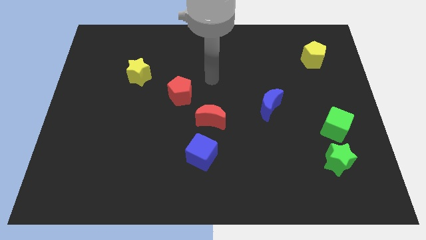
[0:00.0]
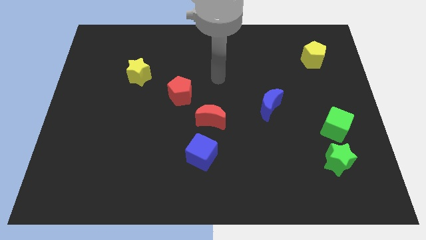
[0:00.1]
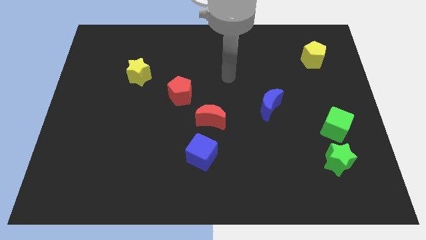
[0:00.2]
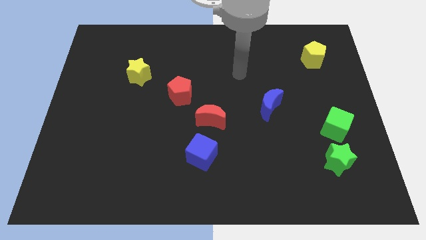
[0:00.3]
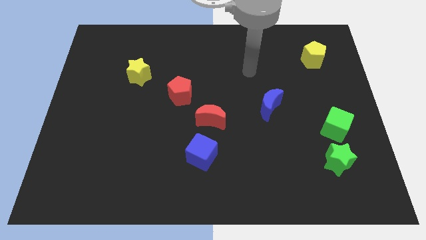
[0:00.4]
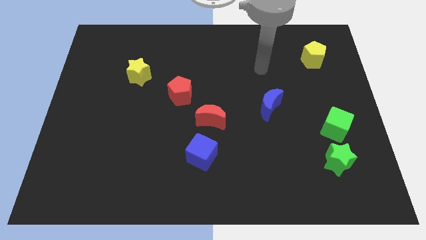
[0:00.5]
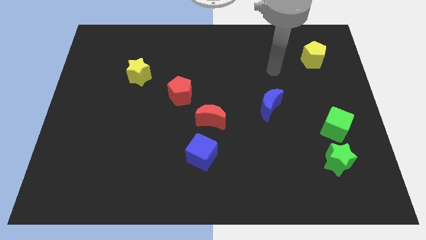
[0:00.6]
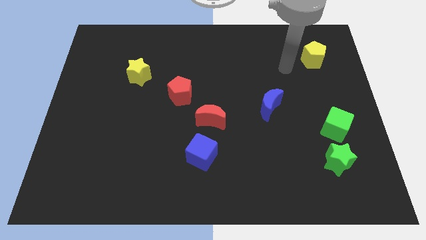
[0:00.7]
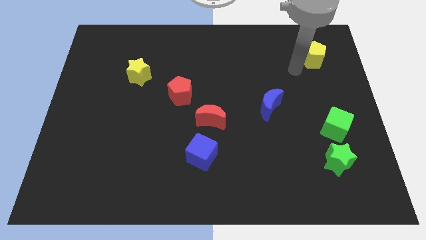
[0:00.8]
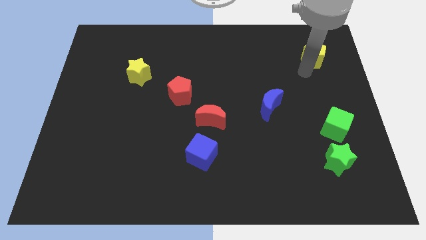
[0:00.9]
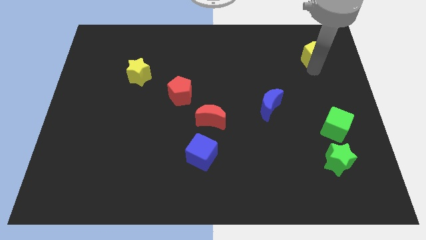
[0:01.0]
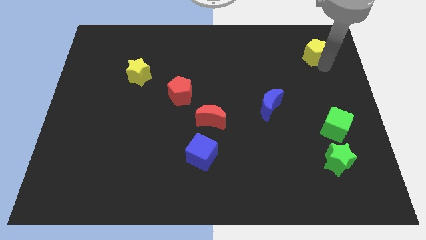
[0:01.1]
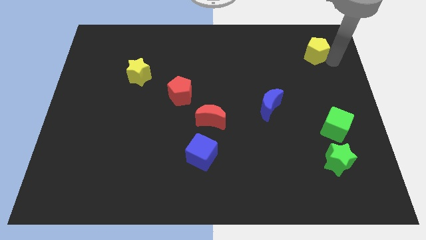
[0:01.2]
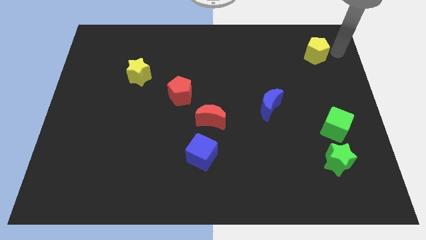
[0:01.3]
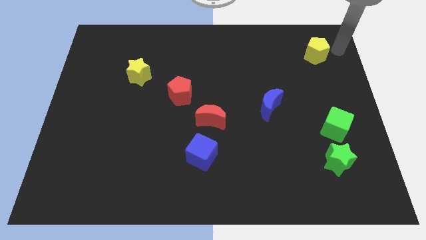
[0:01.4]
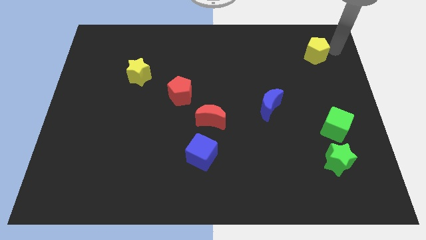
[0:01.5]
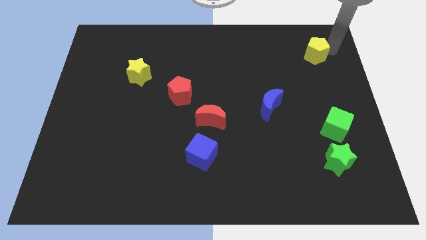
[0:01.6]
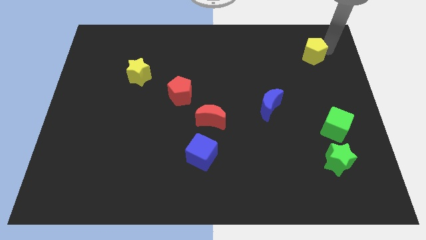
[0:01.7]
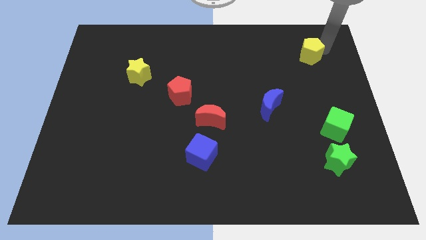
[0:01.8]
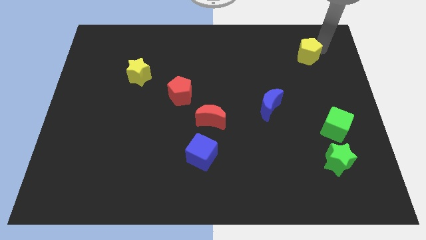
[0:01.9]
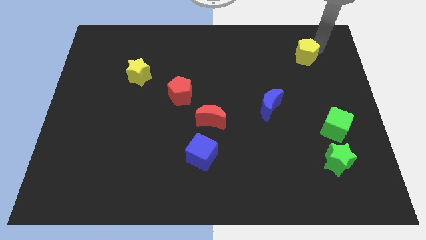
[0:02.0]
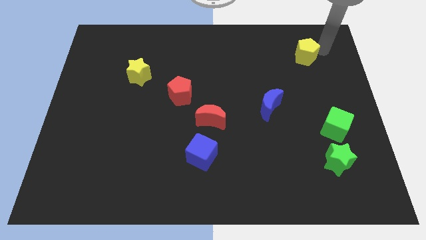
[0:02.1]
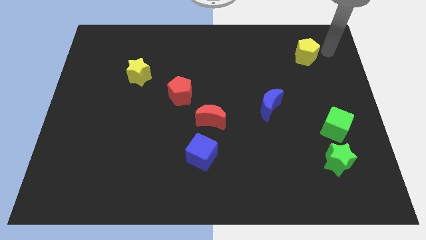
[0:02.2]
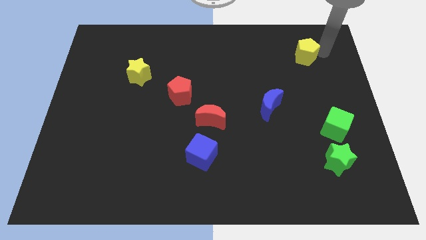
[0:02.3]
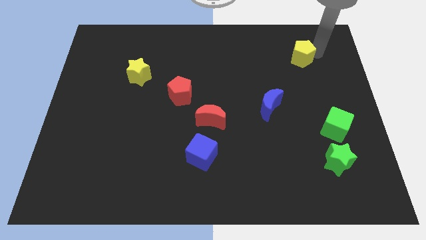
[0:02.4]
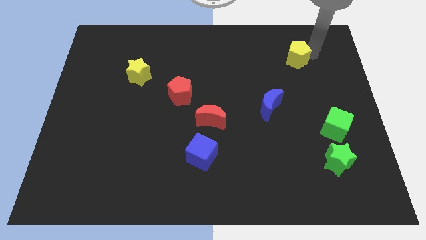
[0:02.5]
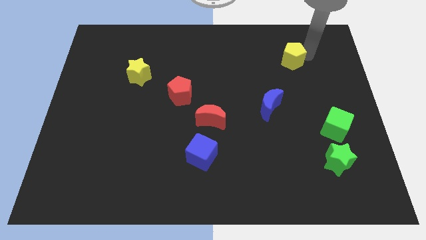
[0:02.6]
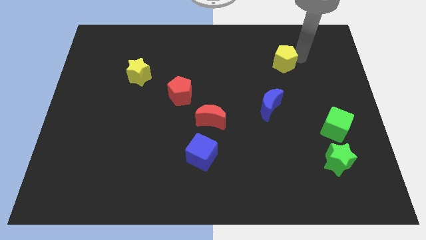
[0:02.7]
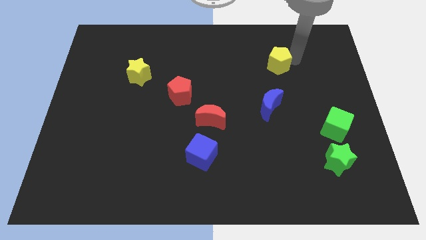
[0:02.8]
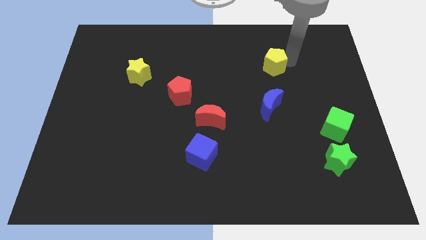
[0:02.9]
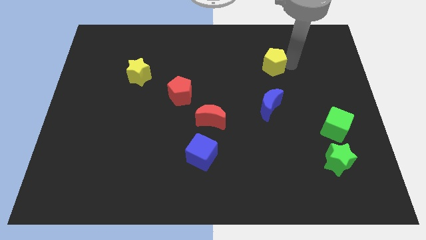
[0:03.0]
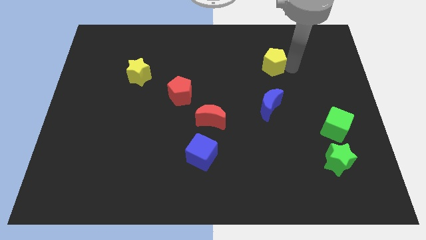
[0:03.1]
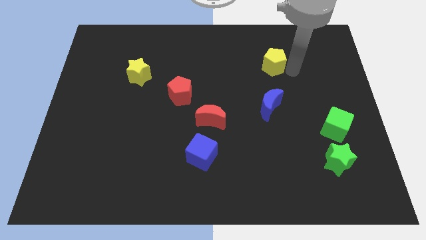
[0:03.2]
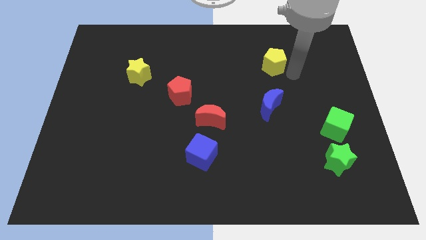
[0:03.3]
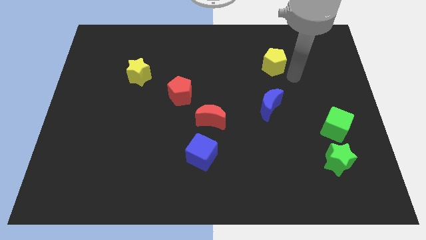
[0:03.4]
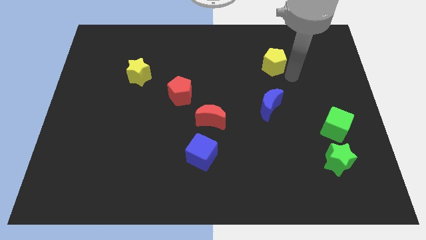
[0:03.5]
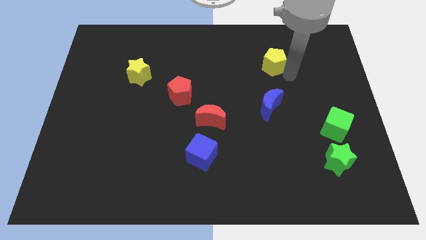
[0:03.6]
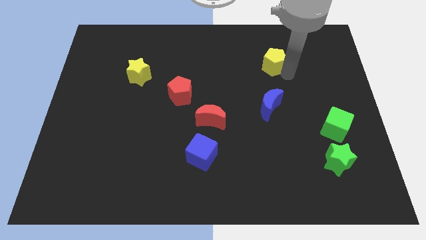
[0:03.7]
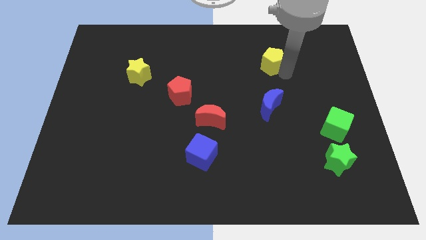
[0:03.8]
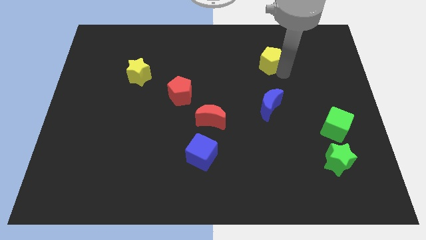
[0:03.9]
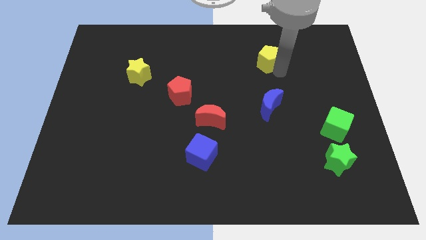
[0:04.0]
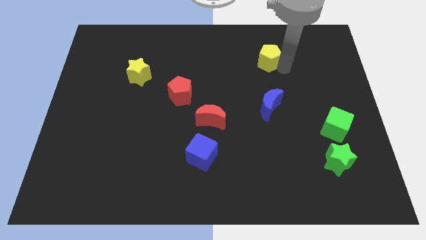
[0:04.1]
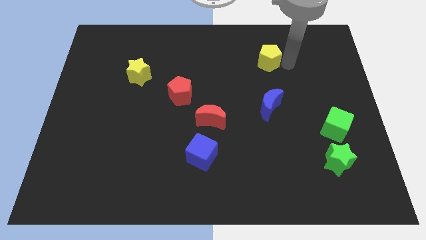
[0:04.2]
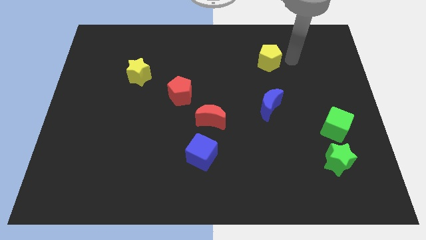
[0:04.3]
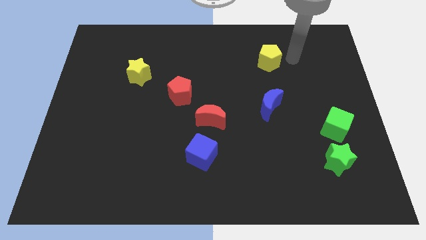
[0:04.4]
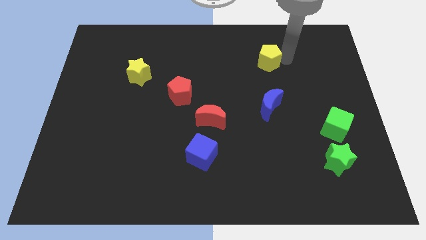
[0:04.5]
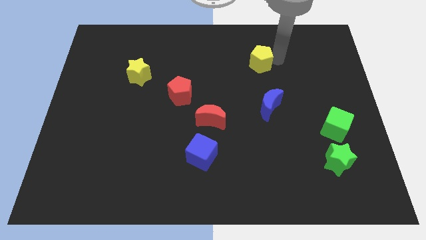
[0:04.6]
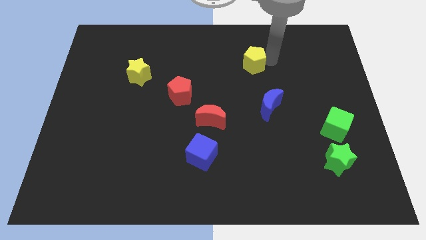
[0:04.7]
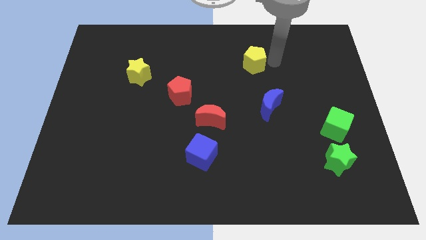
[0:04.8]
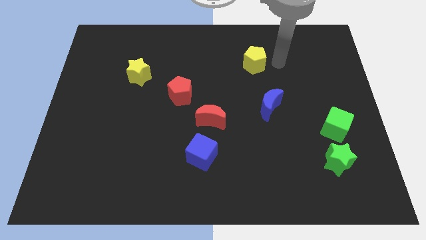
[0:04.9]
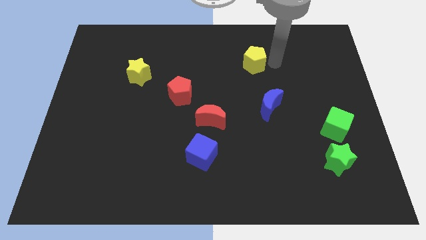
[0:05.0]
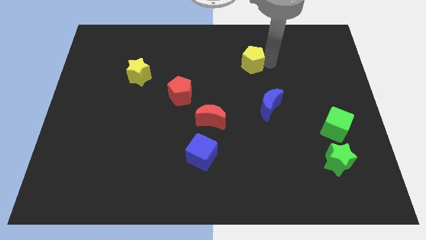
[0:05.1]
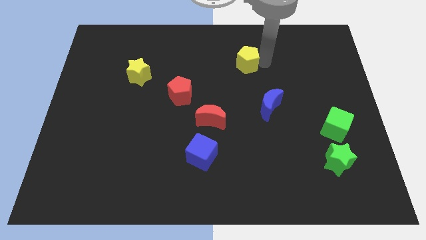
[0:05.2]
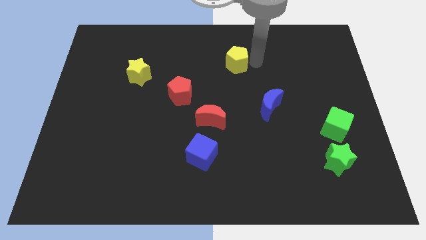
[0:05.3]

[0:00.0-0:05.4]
slide the yellow pentagon left

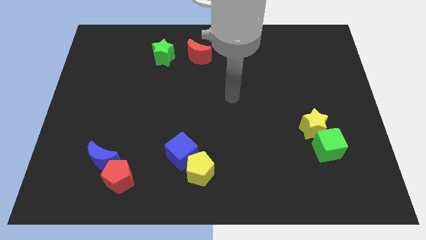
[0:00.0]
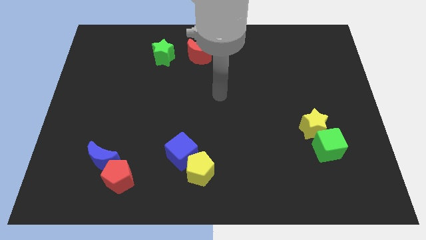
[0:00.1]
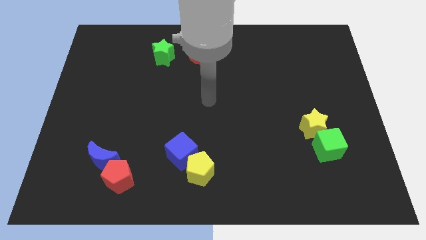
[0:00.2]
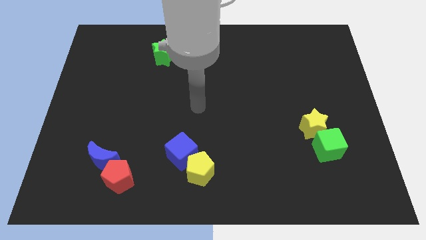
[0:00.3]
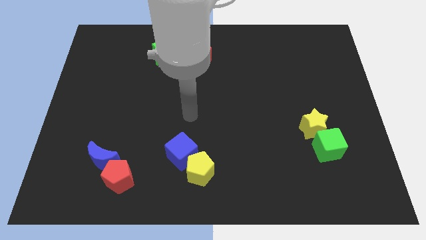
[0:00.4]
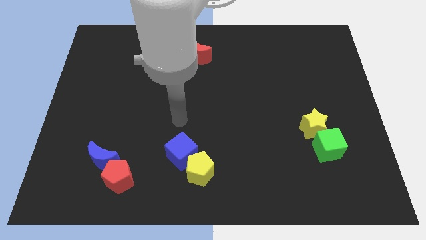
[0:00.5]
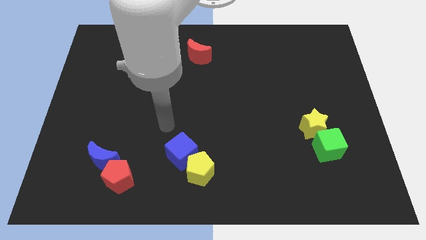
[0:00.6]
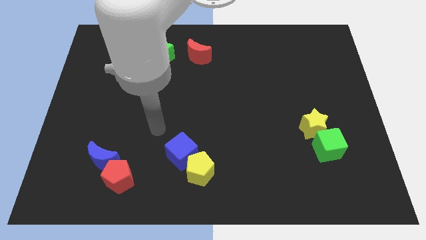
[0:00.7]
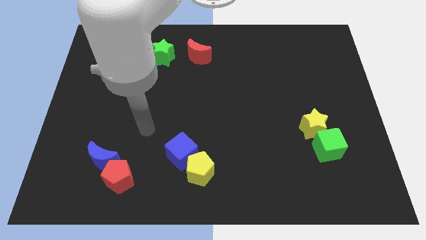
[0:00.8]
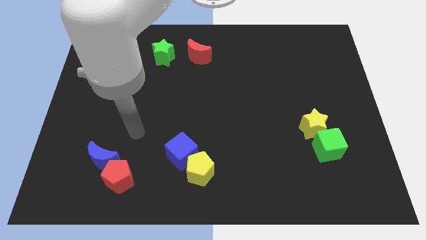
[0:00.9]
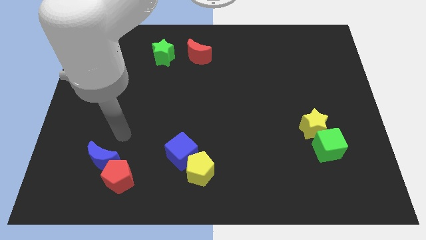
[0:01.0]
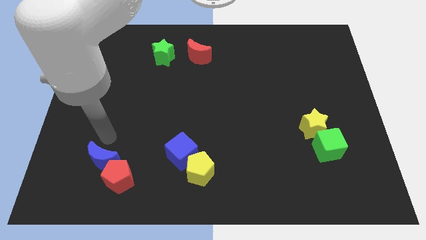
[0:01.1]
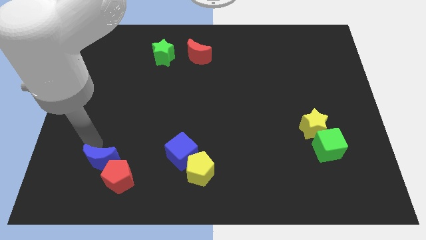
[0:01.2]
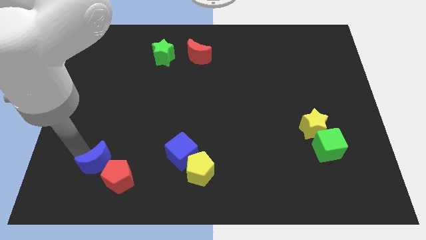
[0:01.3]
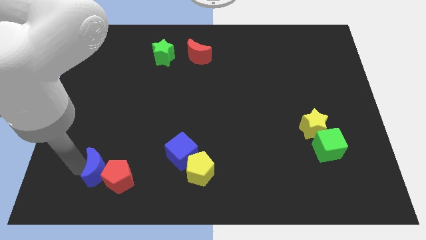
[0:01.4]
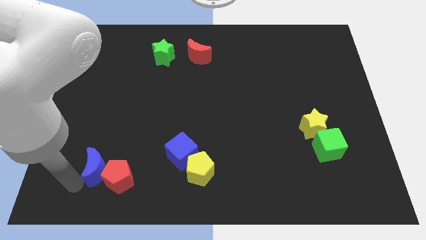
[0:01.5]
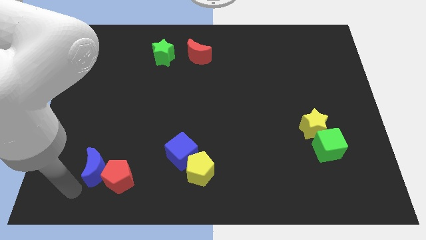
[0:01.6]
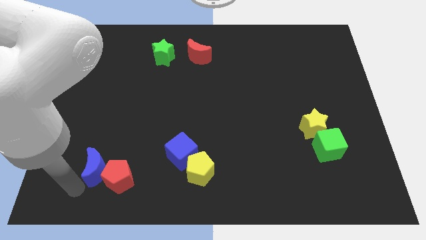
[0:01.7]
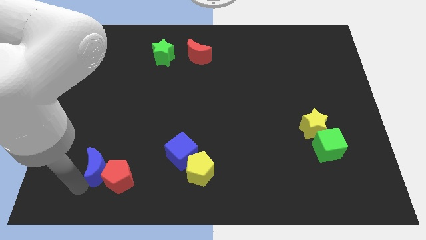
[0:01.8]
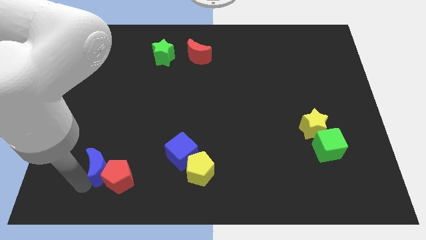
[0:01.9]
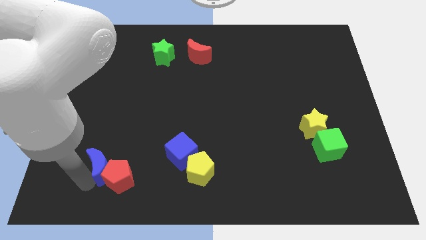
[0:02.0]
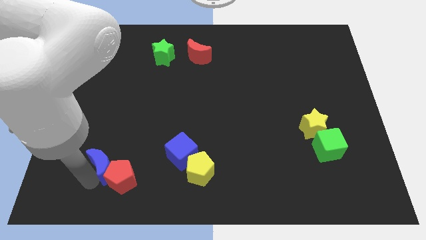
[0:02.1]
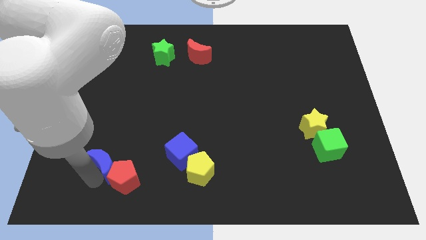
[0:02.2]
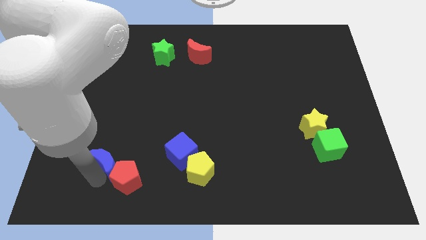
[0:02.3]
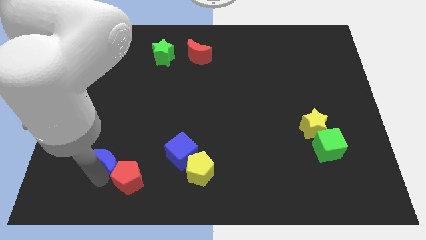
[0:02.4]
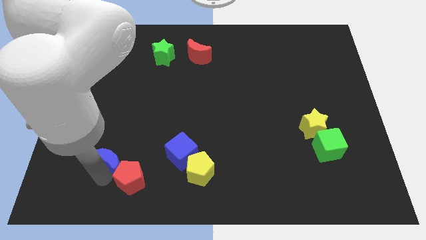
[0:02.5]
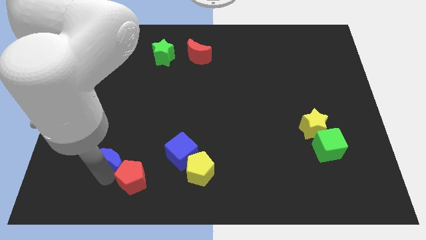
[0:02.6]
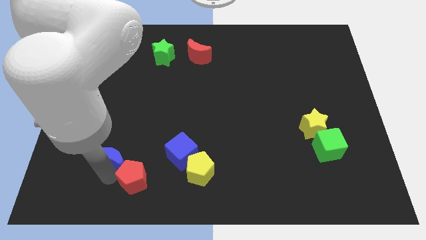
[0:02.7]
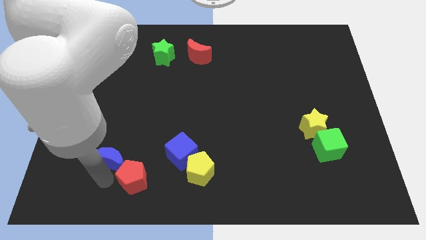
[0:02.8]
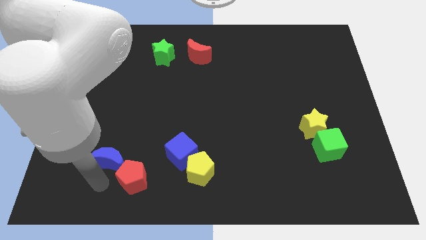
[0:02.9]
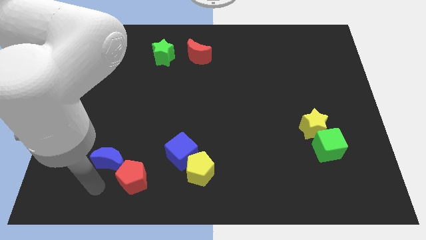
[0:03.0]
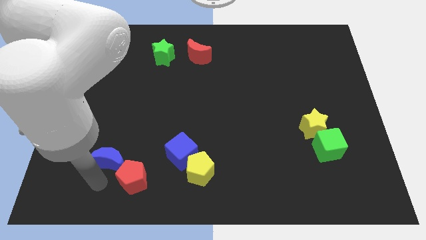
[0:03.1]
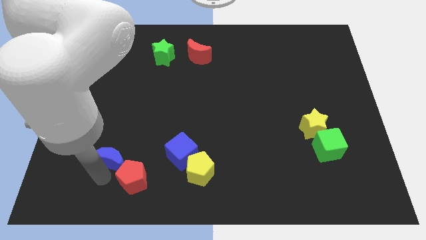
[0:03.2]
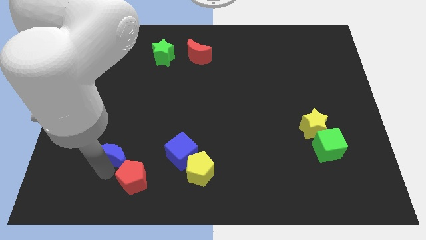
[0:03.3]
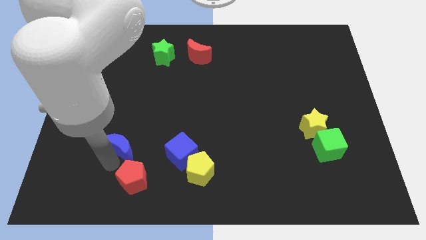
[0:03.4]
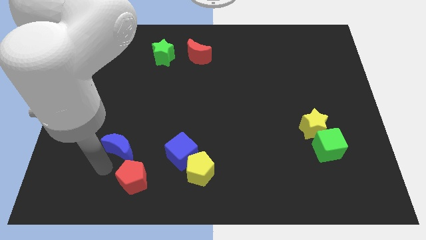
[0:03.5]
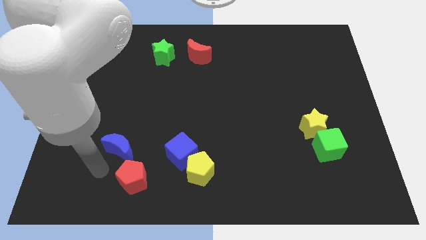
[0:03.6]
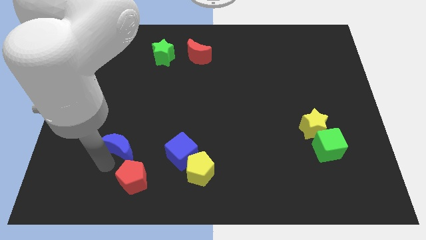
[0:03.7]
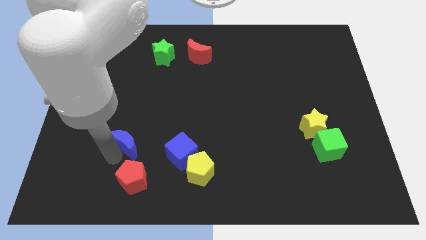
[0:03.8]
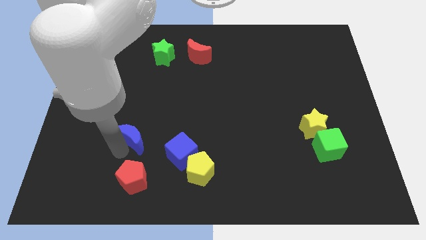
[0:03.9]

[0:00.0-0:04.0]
move the blue moon a bit upwards and right diagonally
